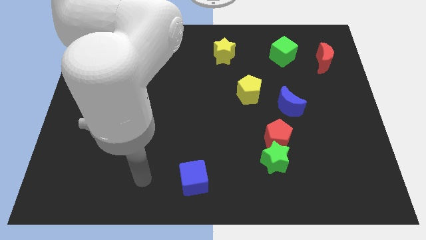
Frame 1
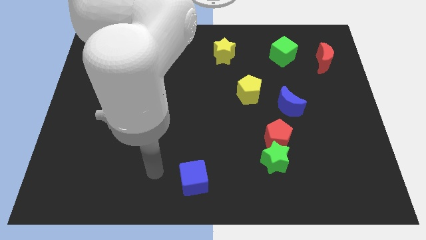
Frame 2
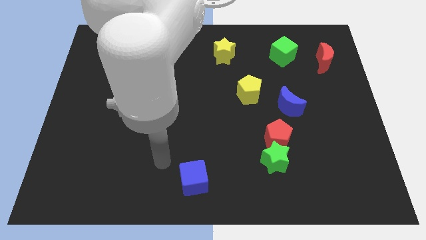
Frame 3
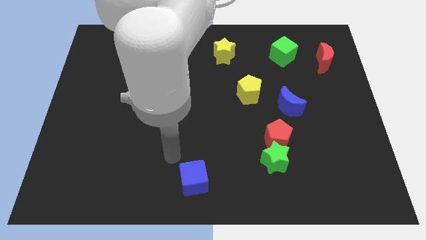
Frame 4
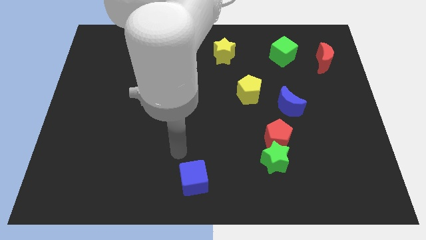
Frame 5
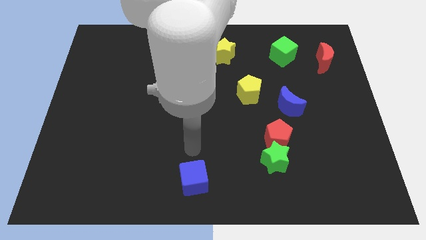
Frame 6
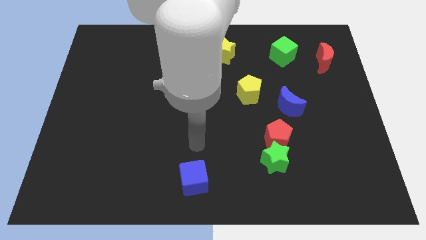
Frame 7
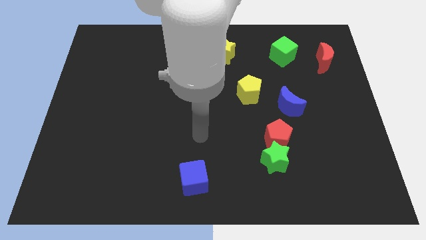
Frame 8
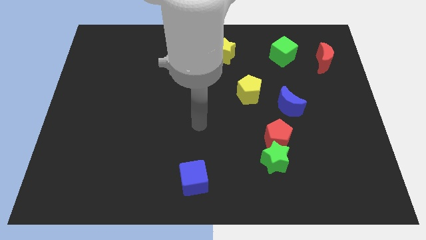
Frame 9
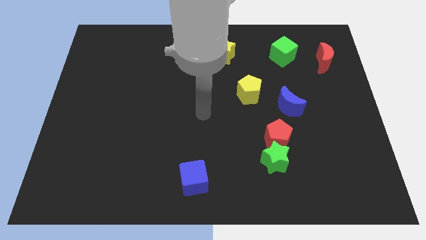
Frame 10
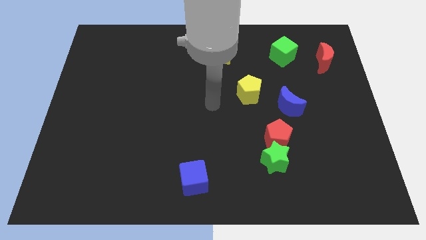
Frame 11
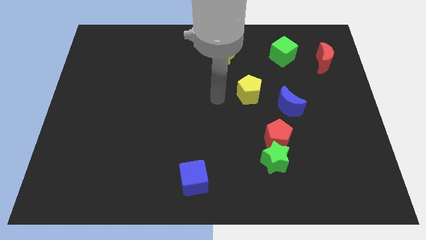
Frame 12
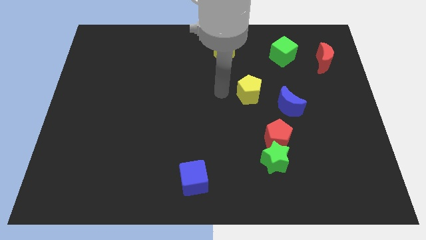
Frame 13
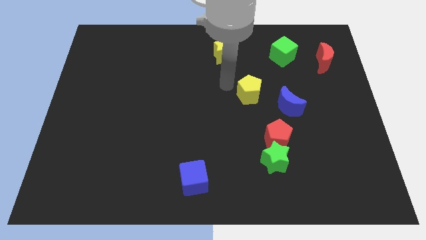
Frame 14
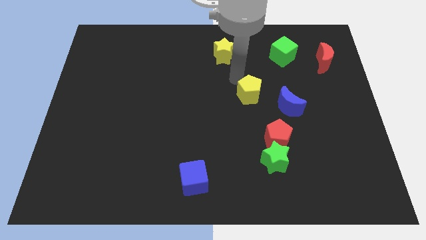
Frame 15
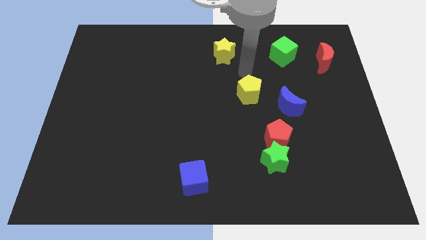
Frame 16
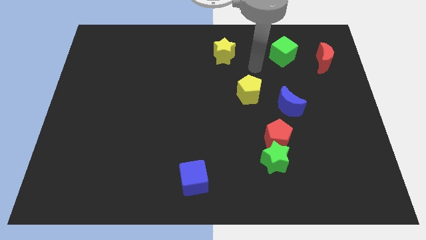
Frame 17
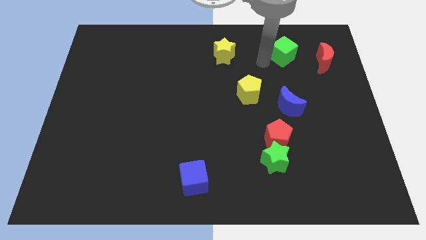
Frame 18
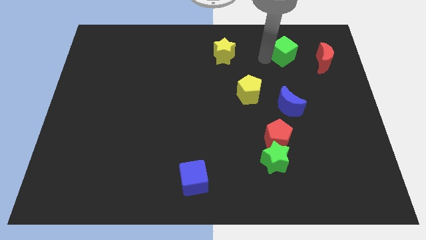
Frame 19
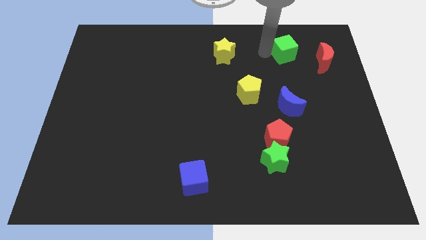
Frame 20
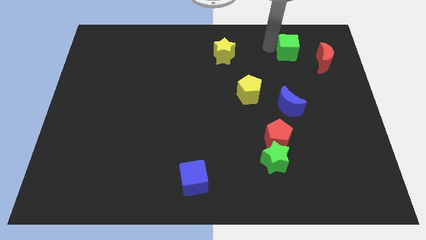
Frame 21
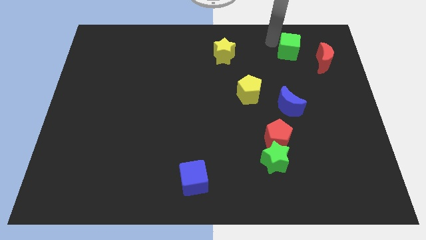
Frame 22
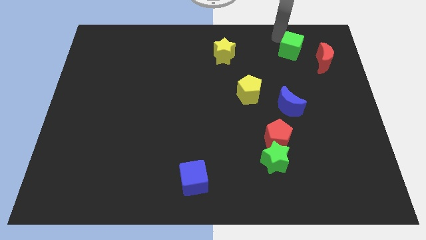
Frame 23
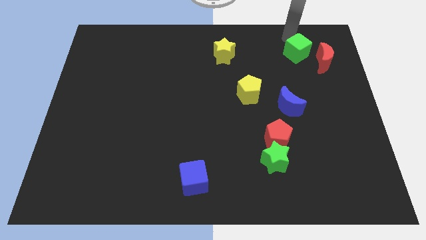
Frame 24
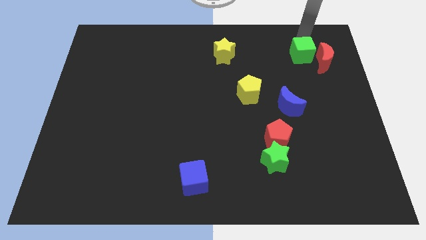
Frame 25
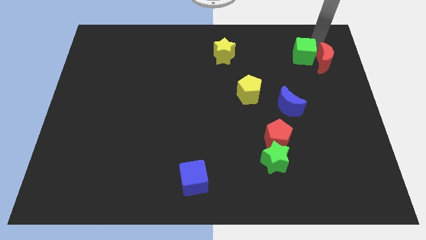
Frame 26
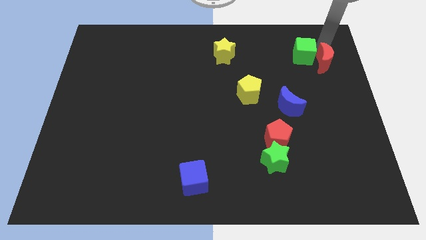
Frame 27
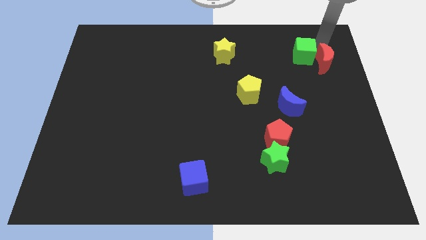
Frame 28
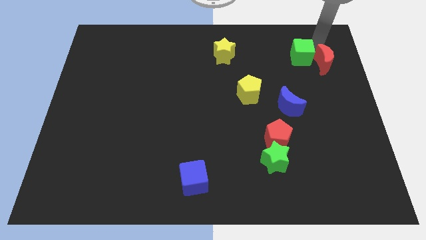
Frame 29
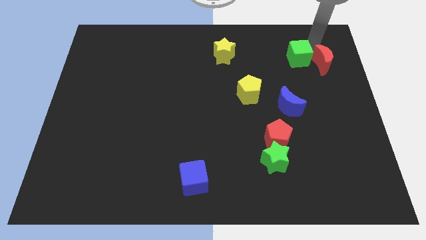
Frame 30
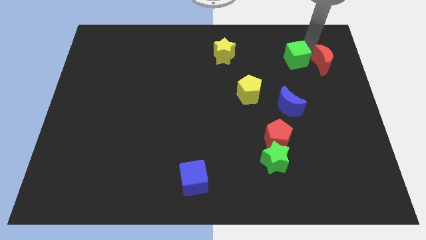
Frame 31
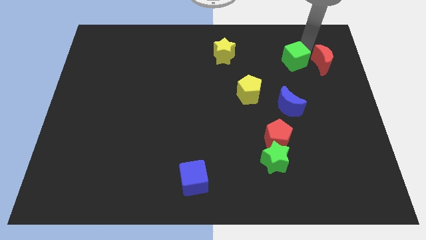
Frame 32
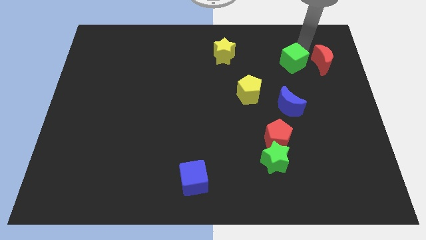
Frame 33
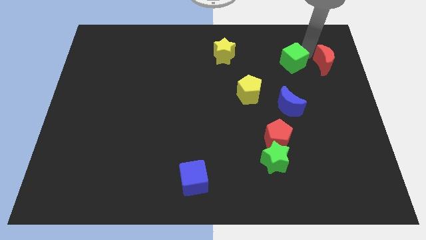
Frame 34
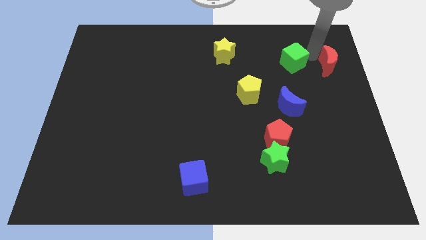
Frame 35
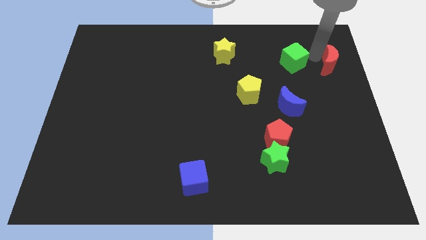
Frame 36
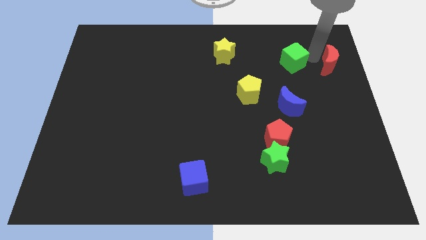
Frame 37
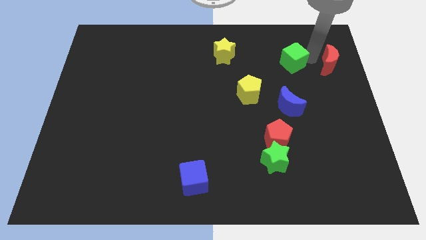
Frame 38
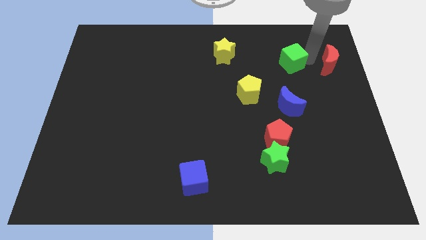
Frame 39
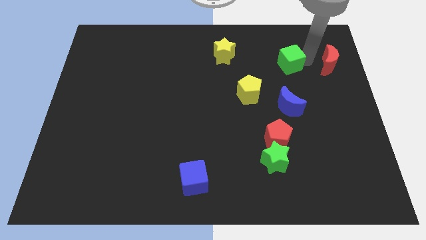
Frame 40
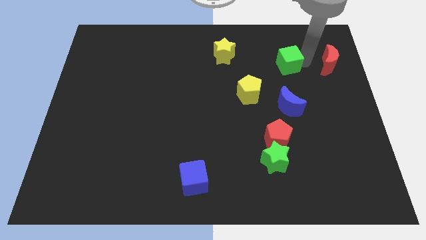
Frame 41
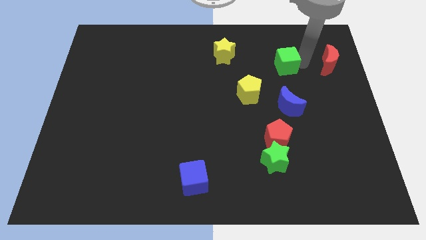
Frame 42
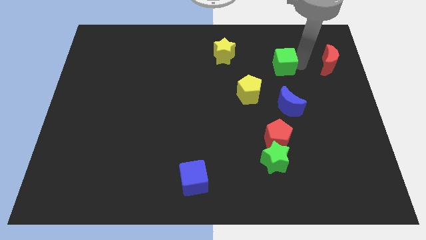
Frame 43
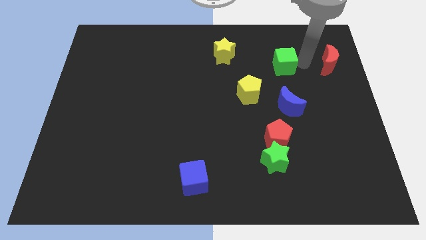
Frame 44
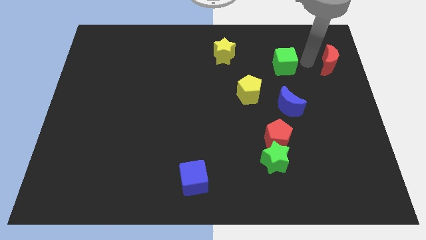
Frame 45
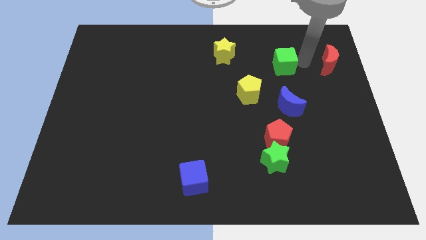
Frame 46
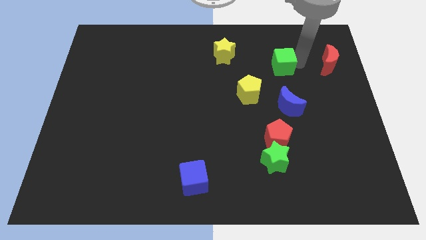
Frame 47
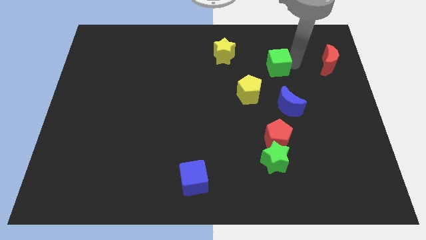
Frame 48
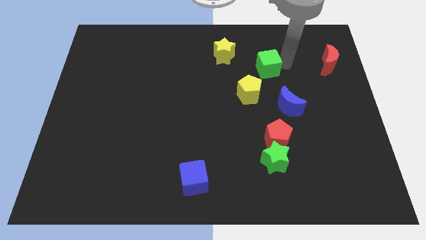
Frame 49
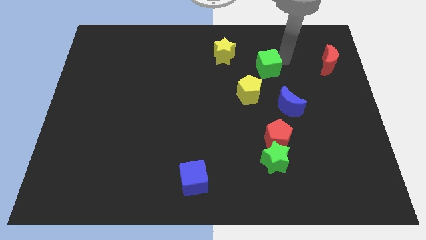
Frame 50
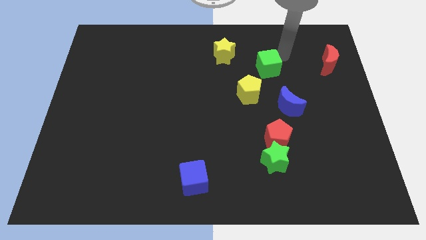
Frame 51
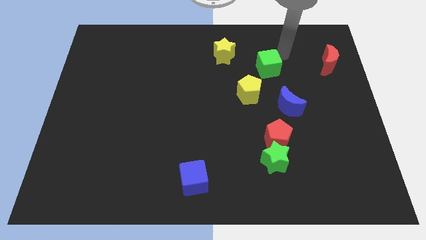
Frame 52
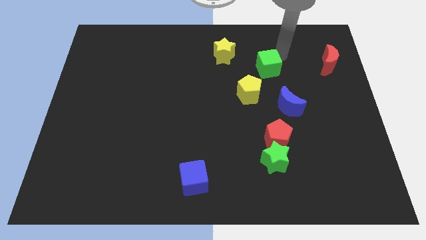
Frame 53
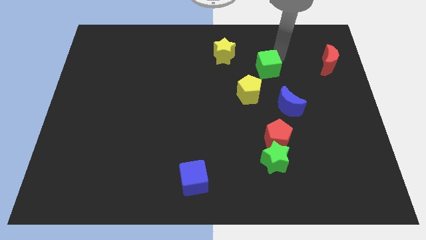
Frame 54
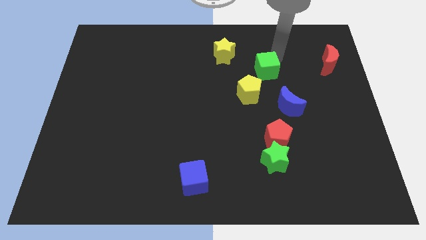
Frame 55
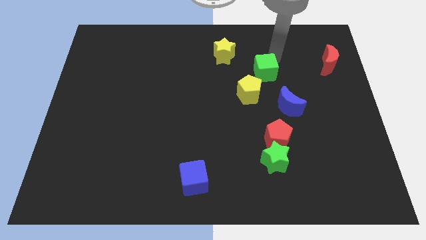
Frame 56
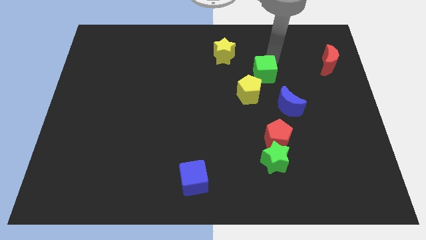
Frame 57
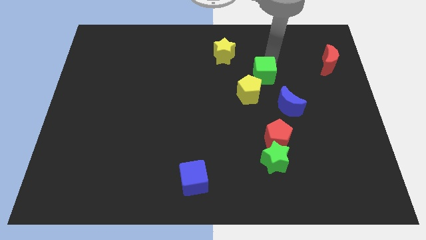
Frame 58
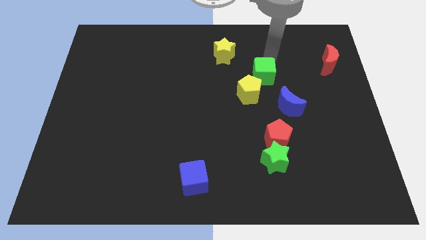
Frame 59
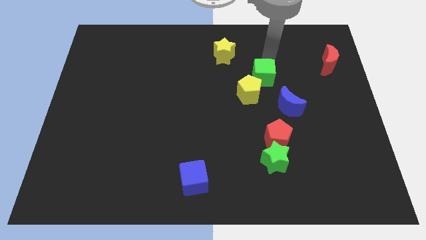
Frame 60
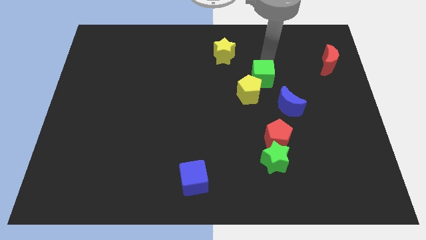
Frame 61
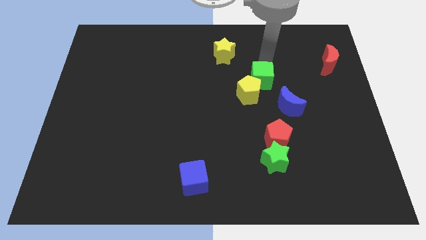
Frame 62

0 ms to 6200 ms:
move the green cube close to the yellow pentagon

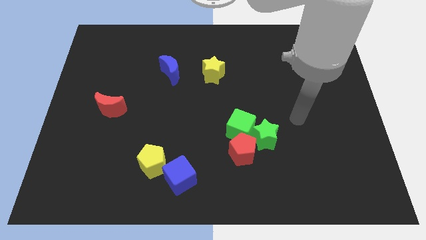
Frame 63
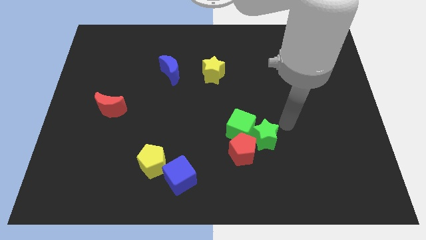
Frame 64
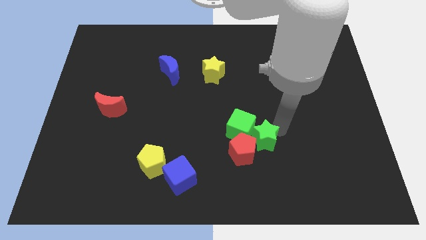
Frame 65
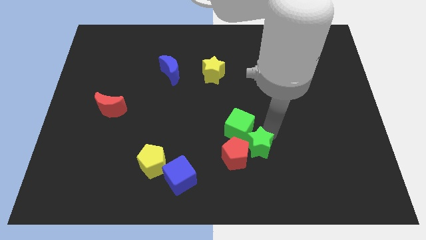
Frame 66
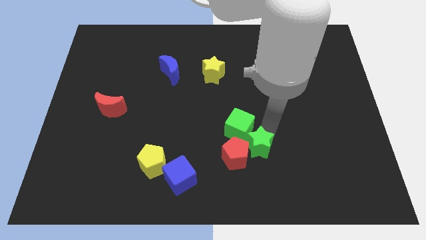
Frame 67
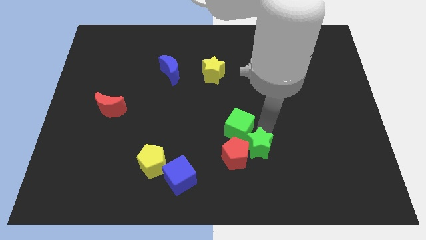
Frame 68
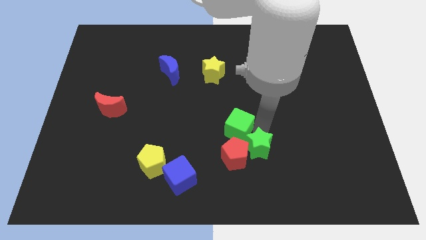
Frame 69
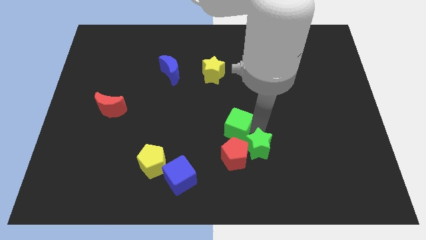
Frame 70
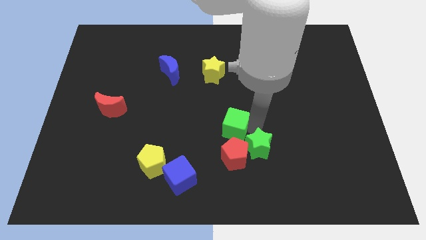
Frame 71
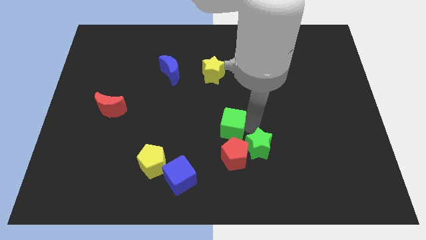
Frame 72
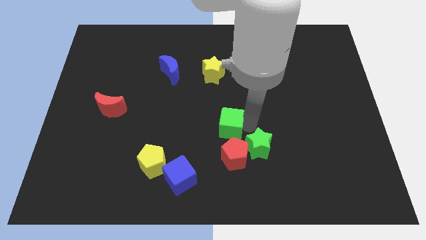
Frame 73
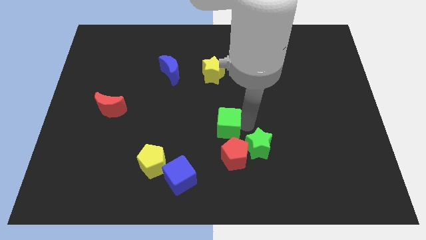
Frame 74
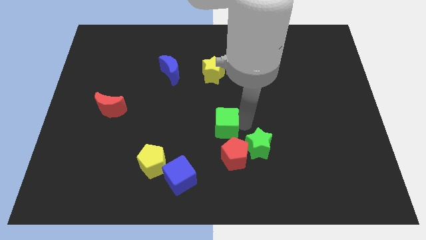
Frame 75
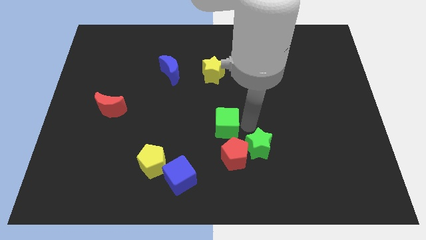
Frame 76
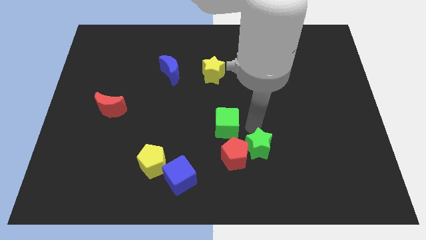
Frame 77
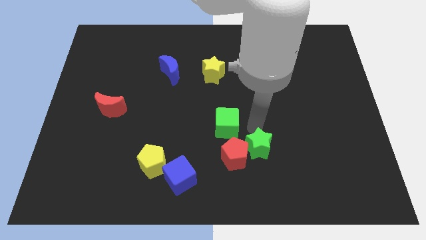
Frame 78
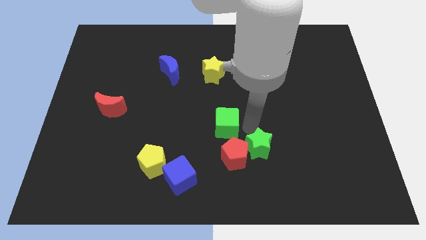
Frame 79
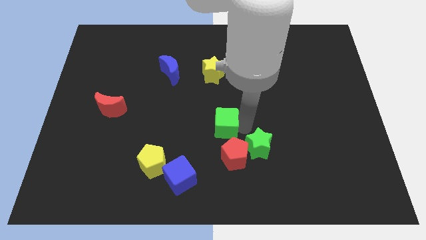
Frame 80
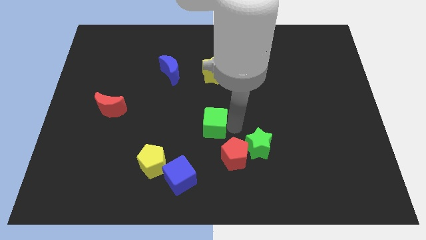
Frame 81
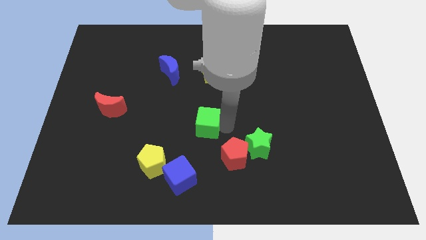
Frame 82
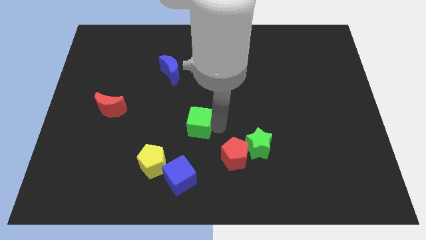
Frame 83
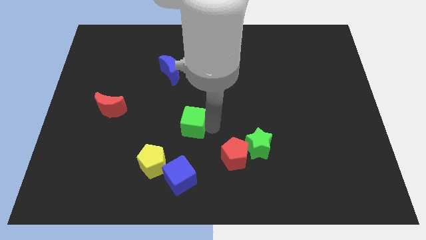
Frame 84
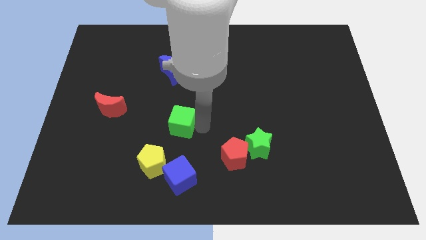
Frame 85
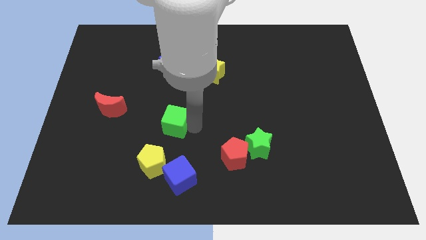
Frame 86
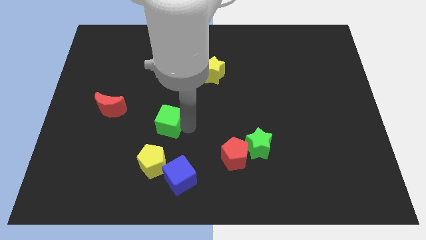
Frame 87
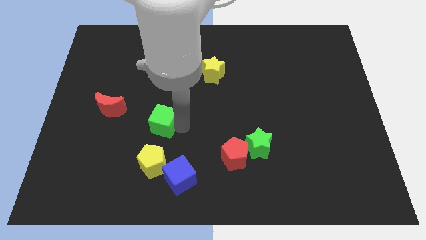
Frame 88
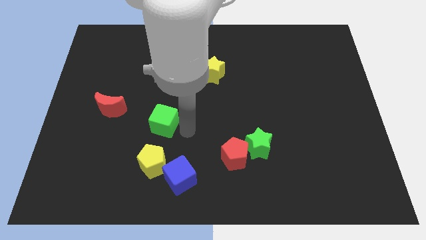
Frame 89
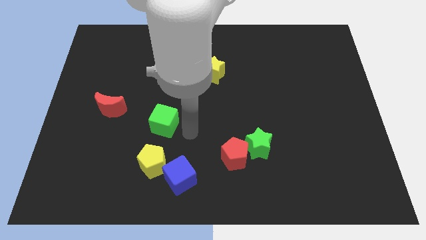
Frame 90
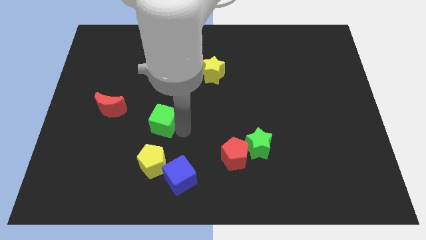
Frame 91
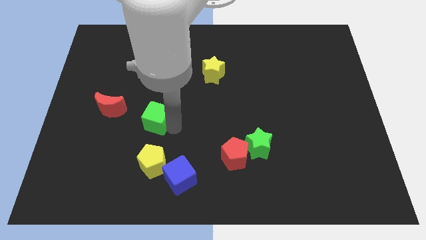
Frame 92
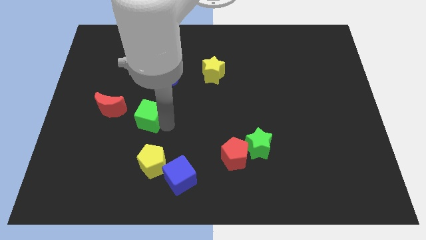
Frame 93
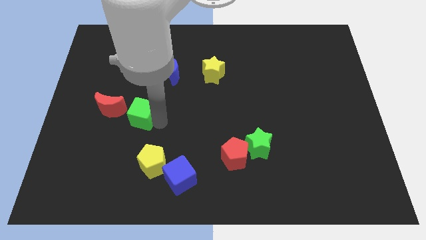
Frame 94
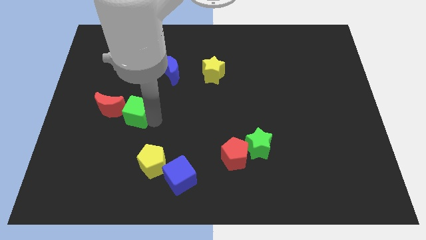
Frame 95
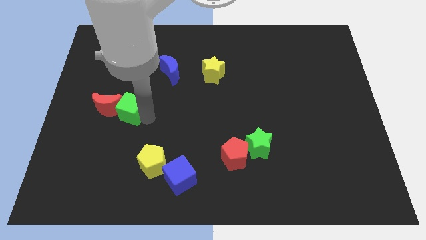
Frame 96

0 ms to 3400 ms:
push the green cube to the red moon
